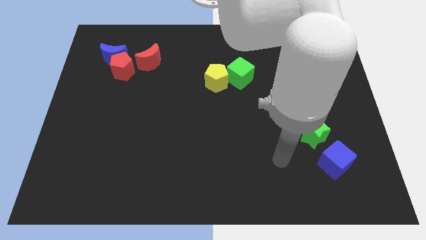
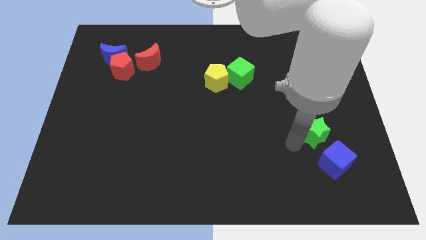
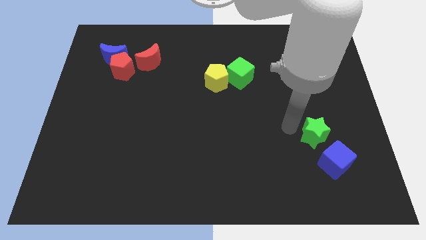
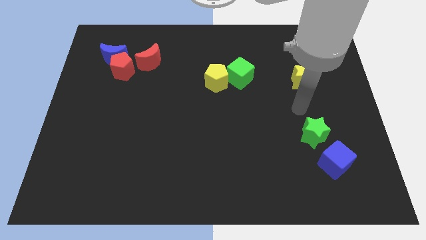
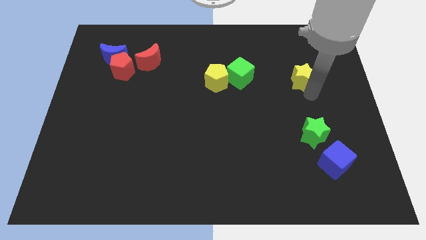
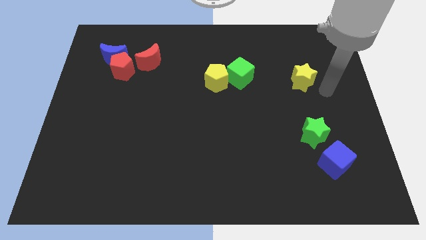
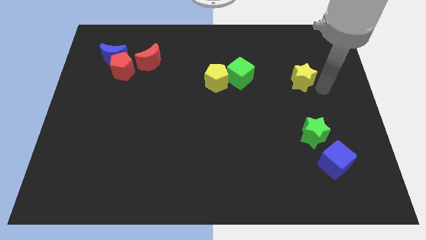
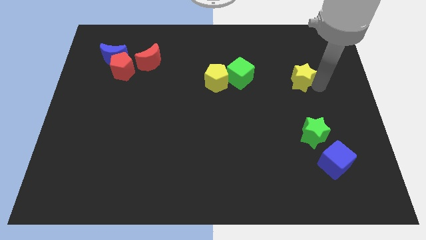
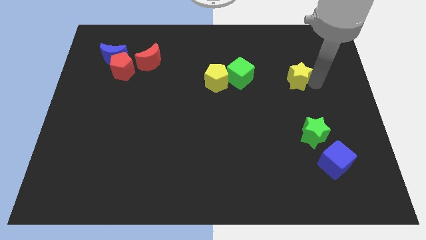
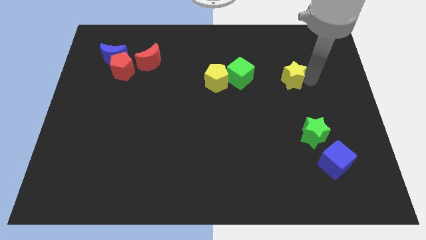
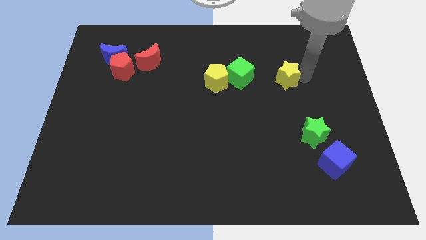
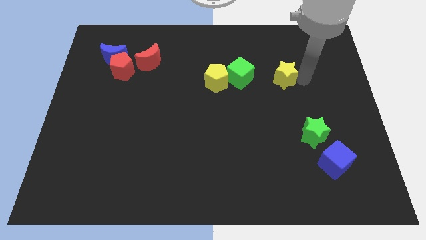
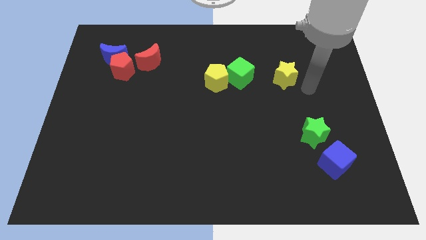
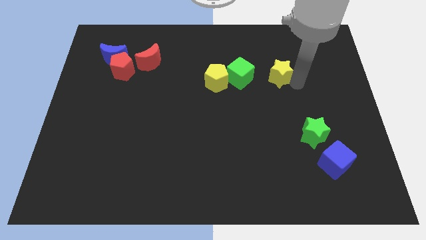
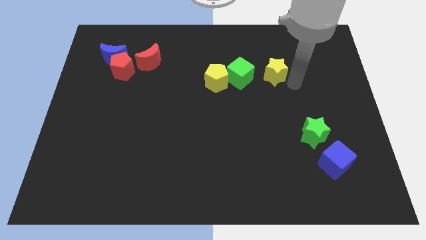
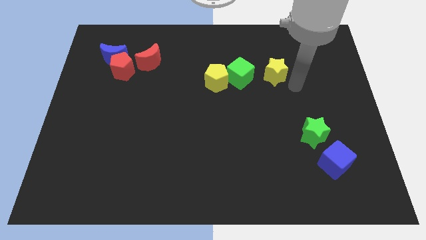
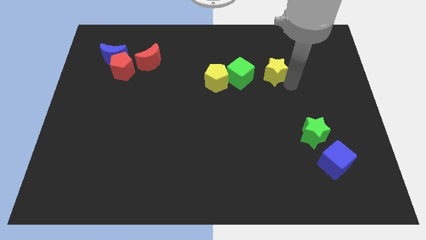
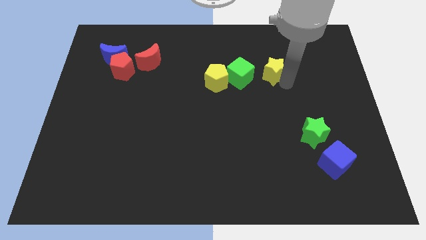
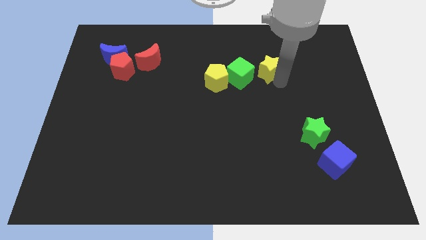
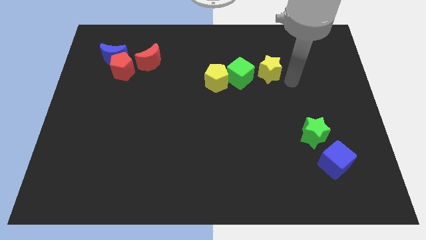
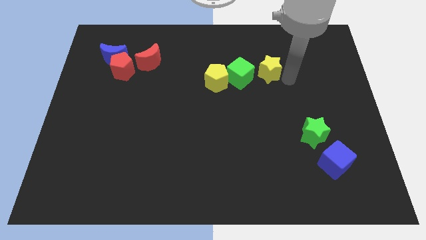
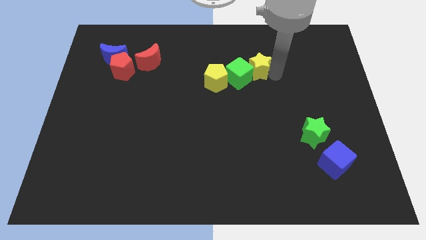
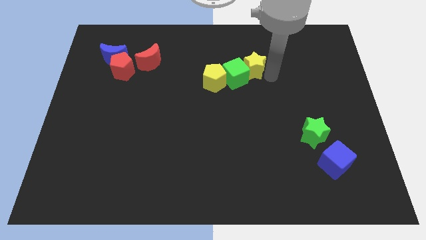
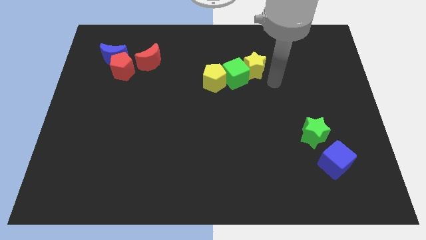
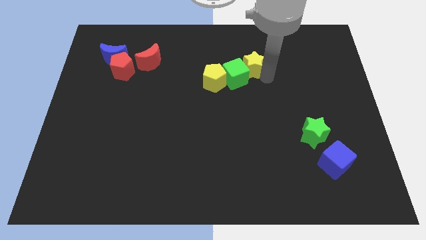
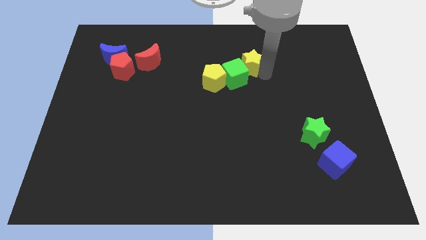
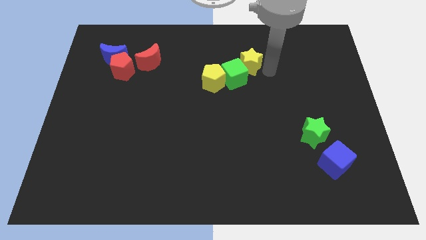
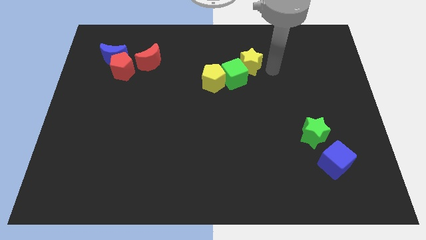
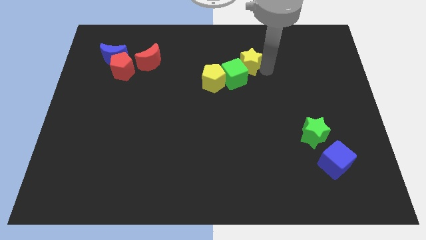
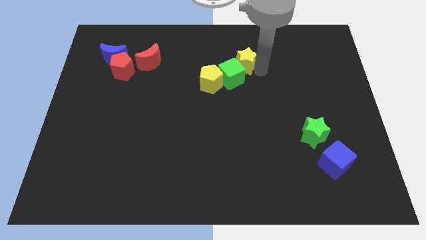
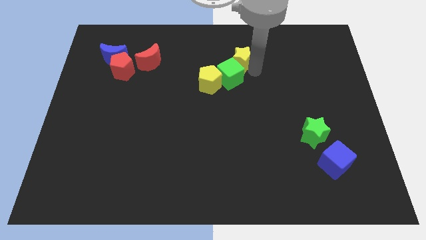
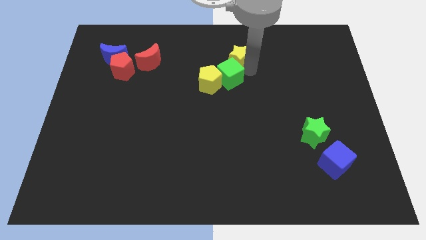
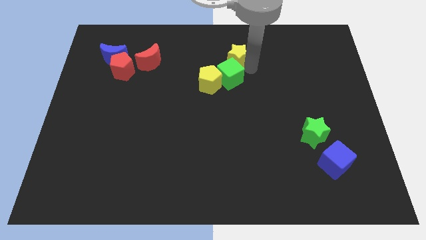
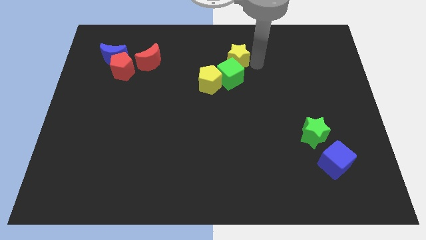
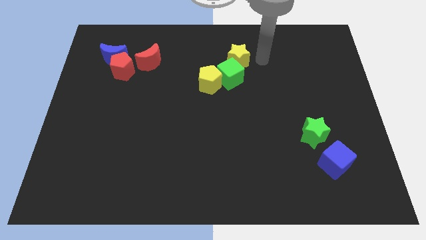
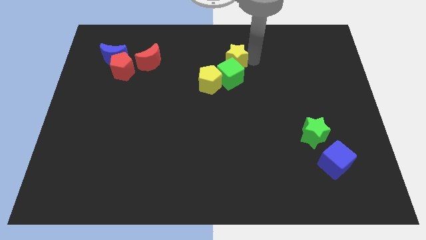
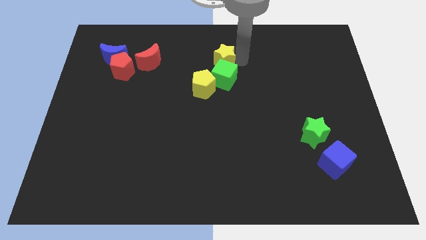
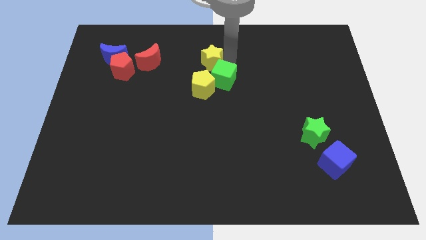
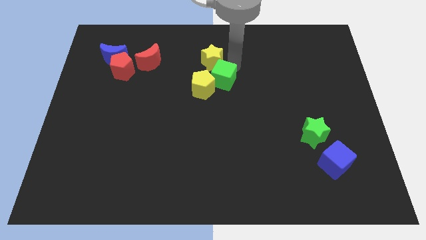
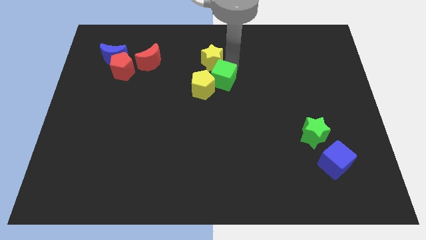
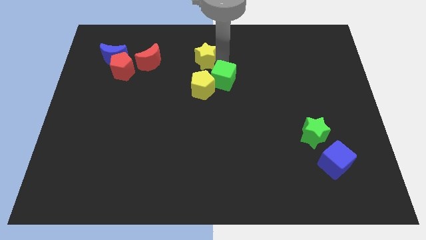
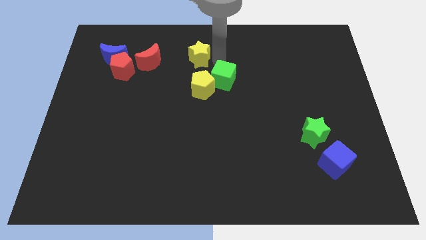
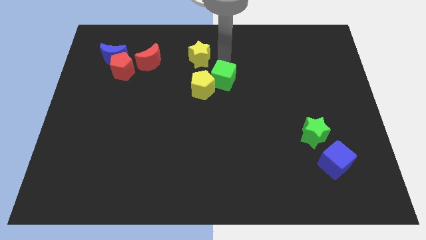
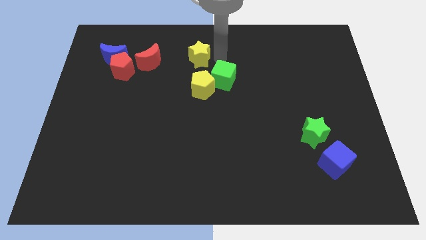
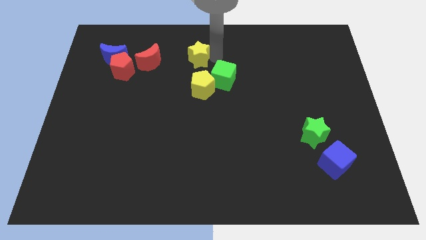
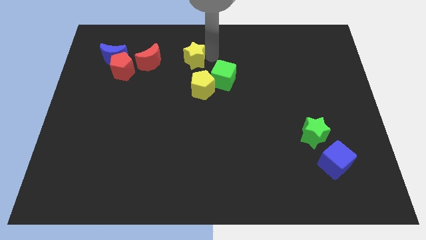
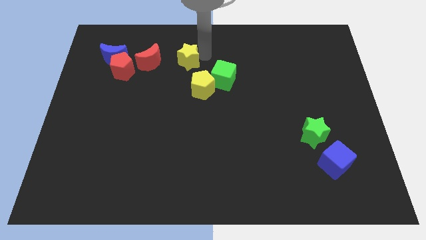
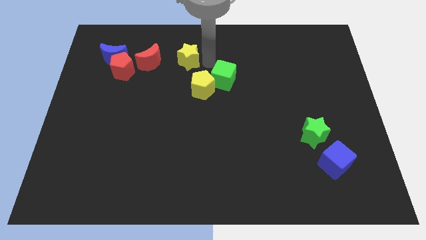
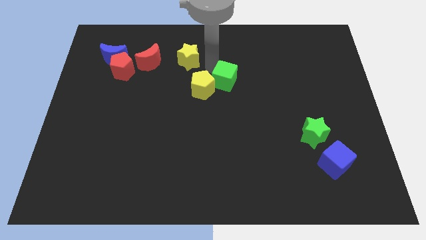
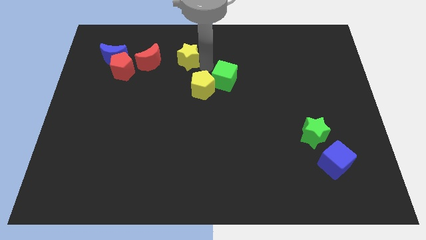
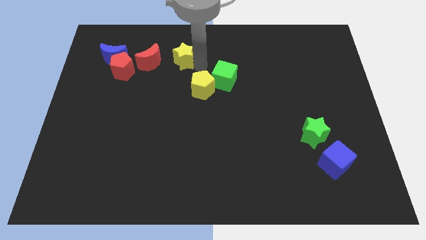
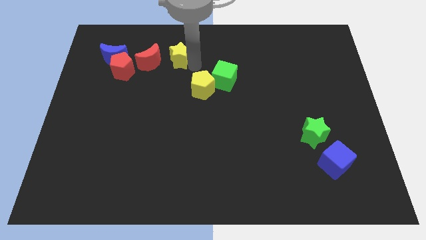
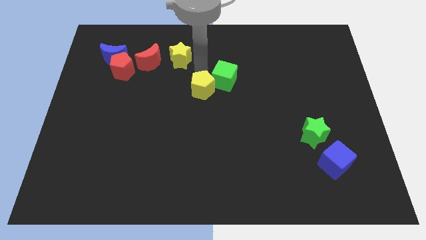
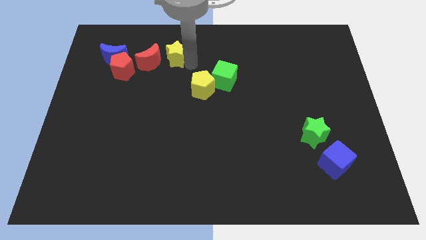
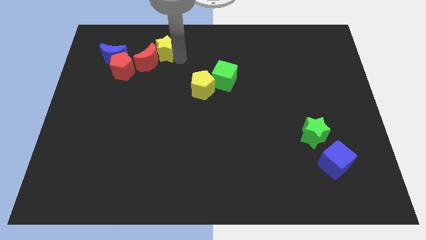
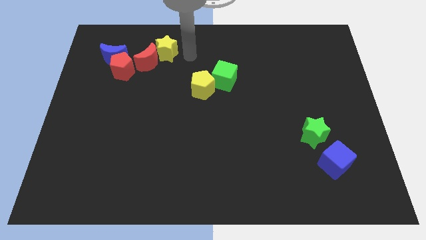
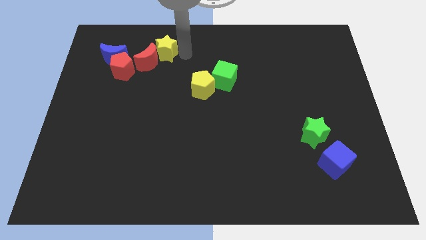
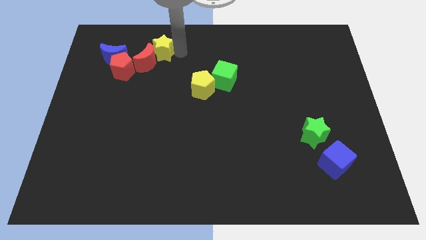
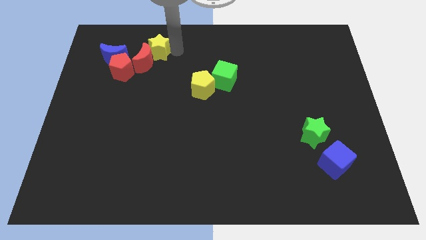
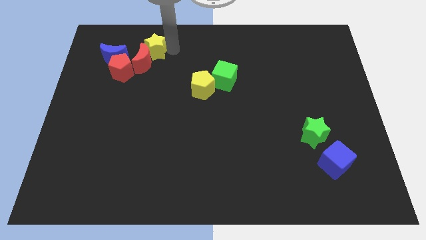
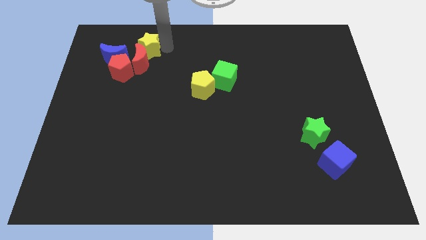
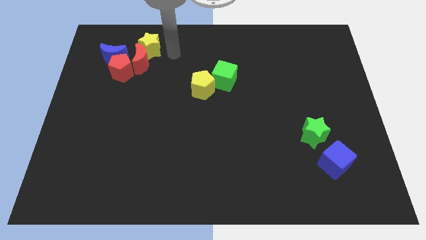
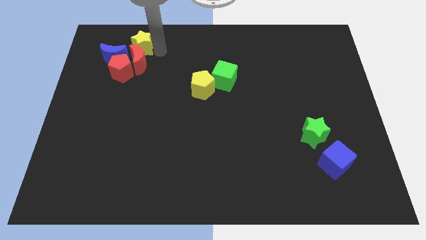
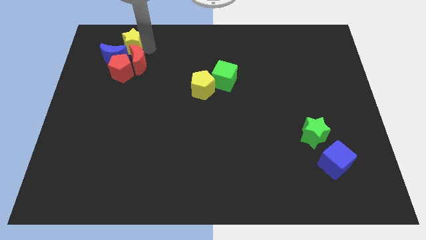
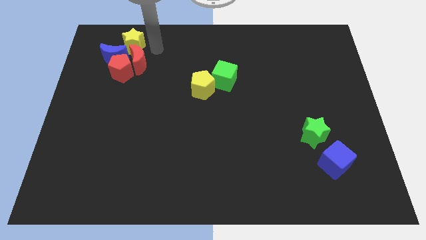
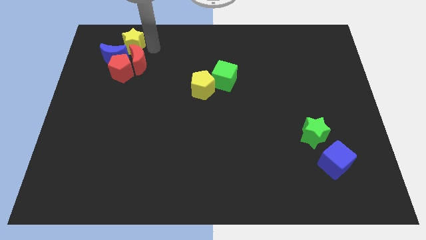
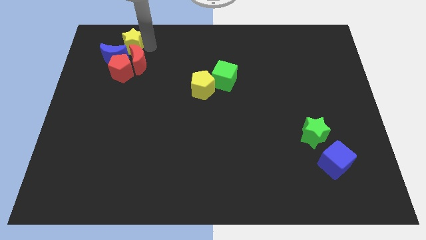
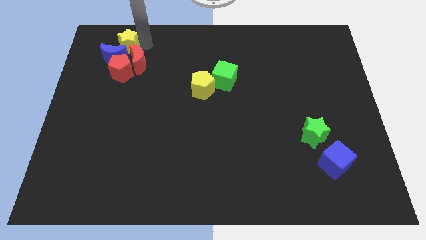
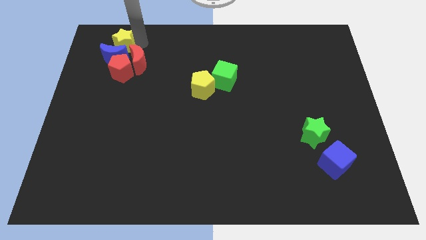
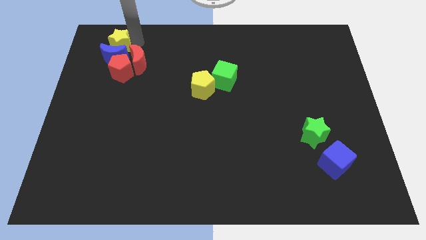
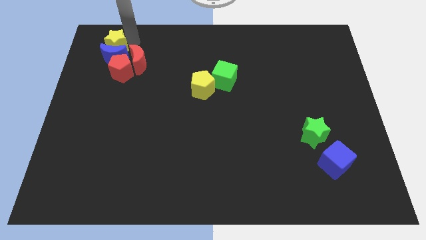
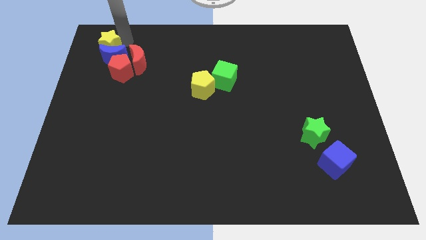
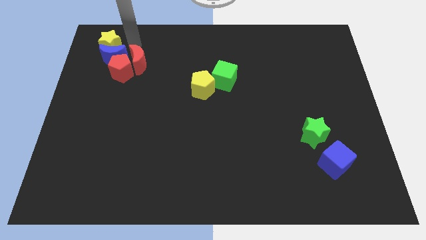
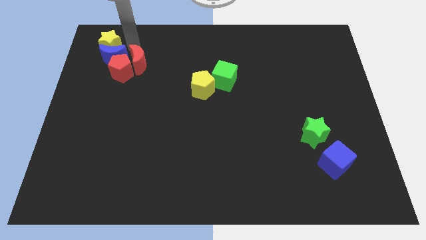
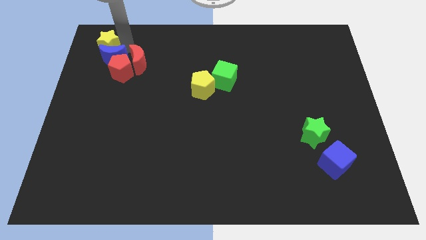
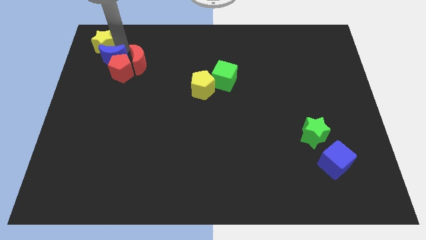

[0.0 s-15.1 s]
slide the yellow star to the top left corner
